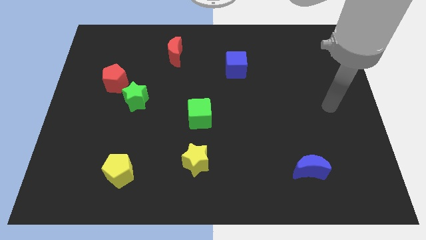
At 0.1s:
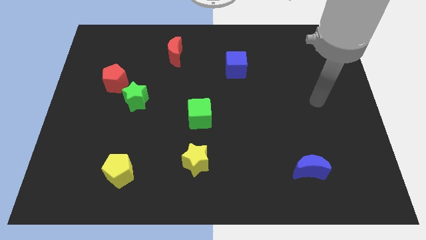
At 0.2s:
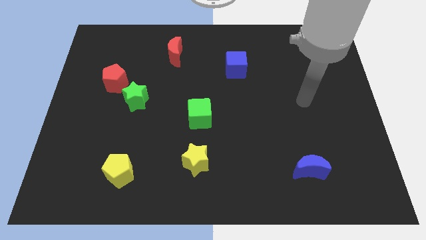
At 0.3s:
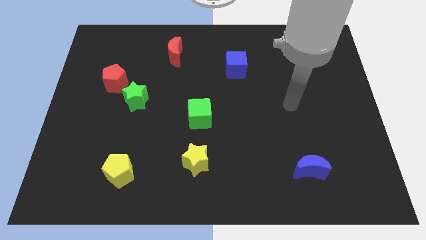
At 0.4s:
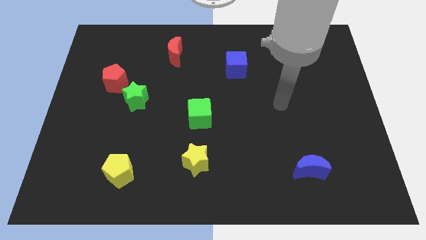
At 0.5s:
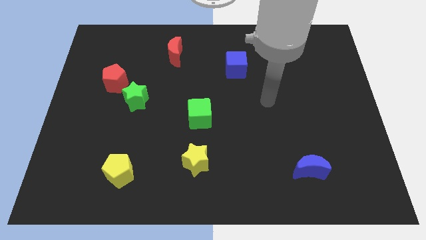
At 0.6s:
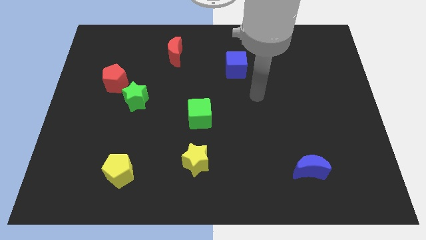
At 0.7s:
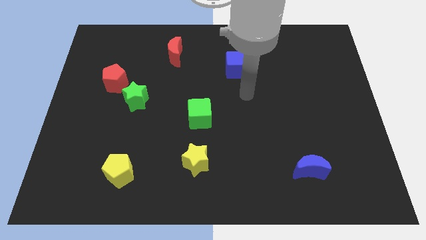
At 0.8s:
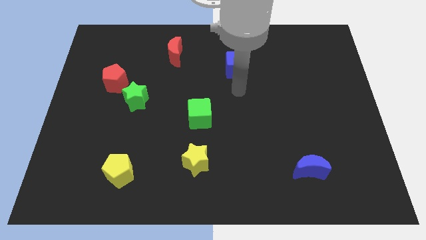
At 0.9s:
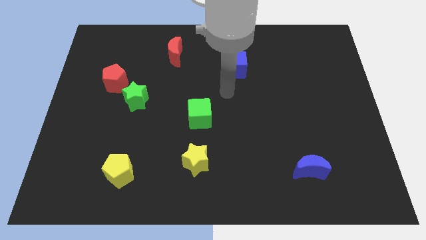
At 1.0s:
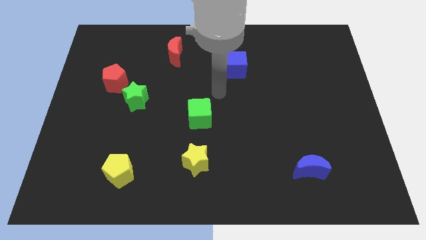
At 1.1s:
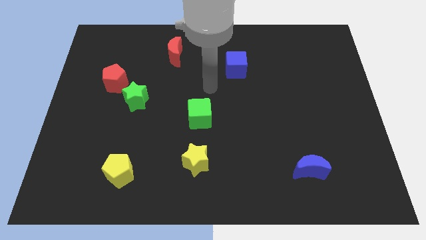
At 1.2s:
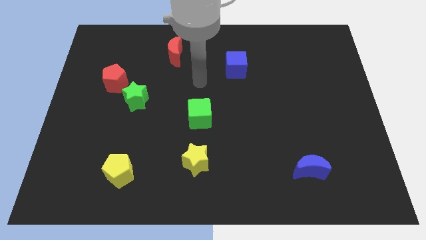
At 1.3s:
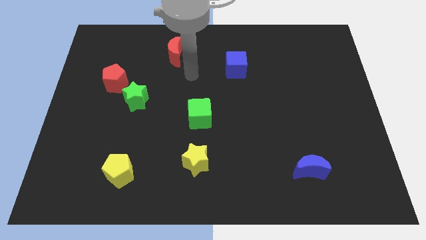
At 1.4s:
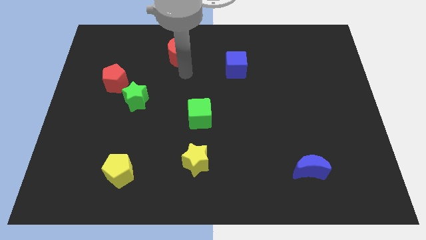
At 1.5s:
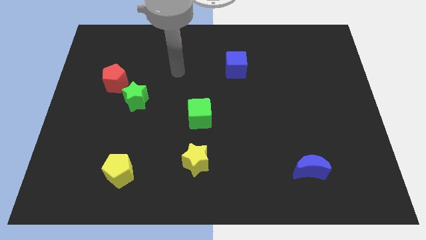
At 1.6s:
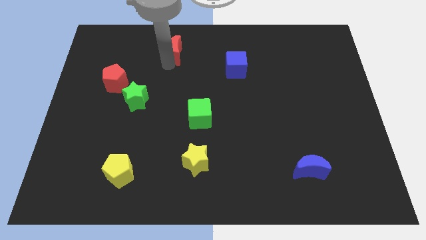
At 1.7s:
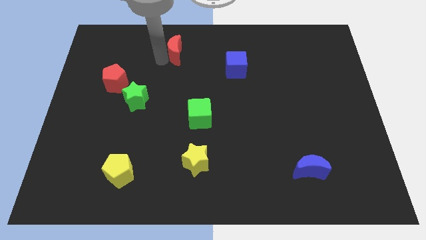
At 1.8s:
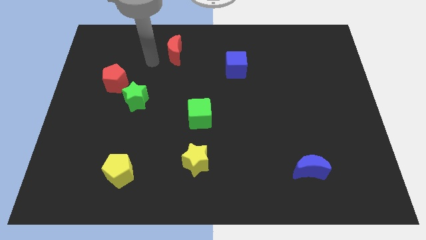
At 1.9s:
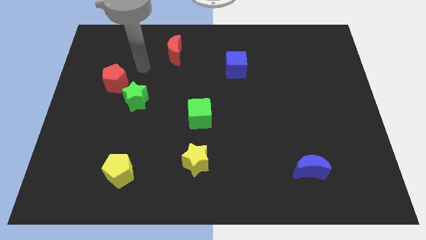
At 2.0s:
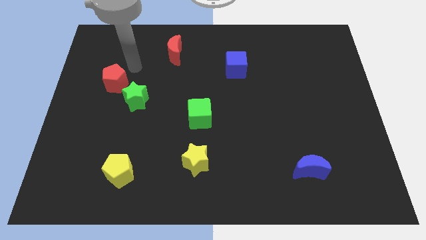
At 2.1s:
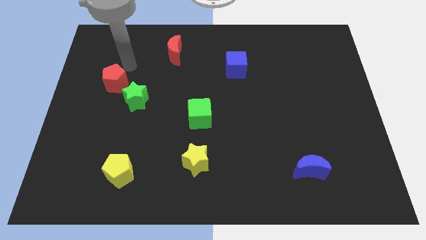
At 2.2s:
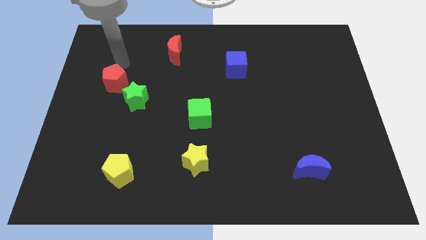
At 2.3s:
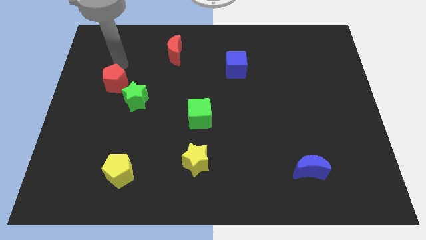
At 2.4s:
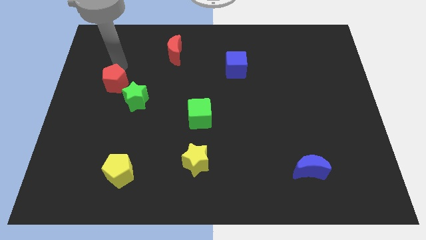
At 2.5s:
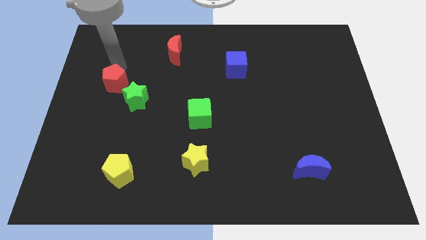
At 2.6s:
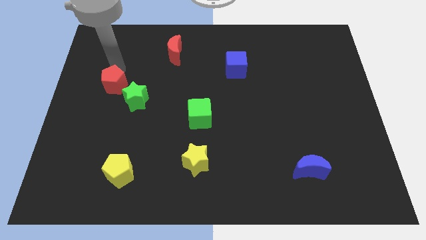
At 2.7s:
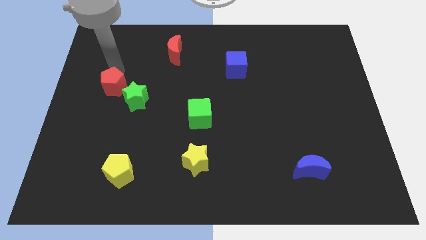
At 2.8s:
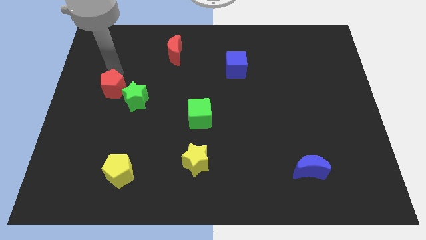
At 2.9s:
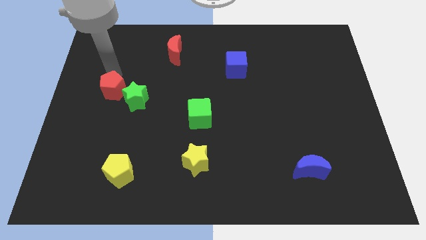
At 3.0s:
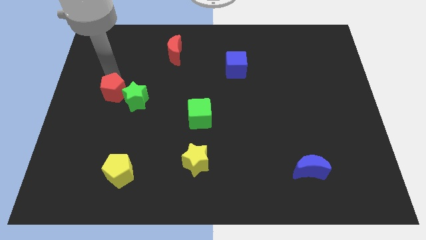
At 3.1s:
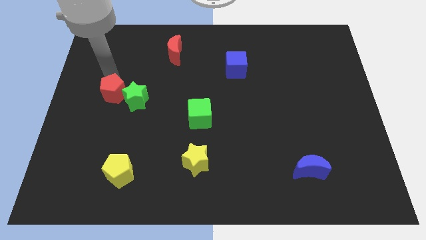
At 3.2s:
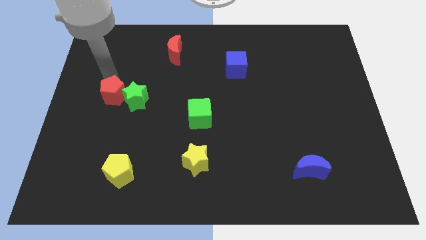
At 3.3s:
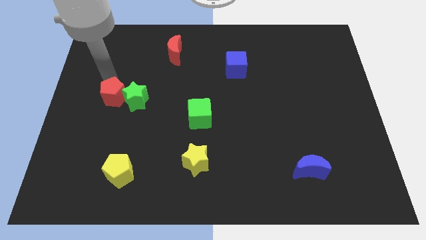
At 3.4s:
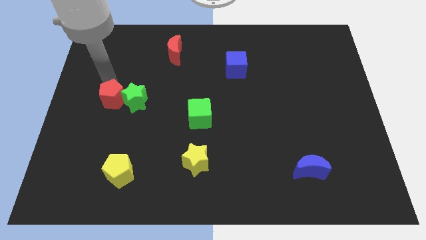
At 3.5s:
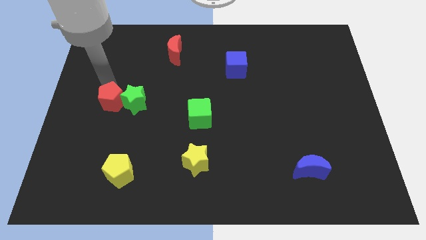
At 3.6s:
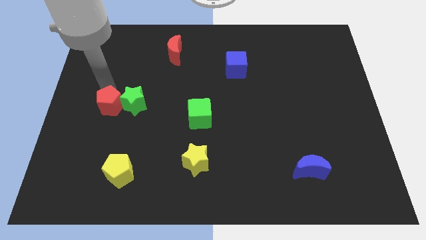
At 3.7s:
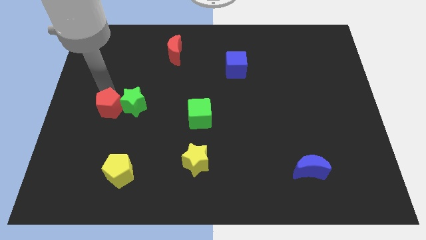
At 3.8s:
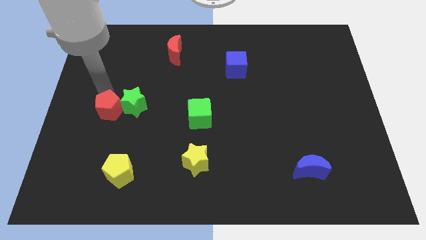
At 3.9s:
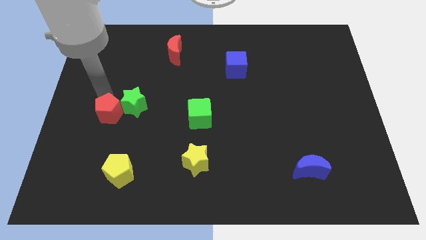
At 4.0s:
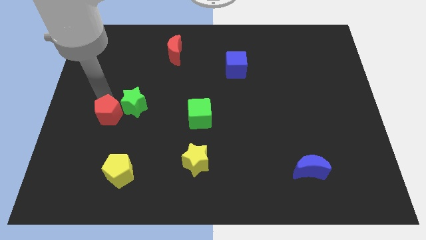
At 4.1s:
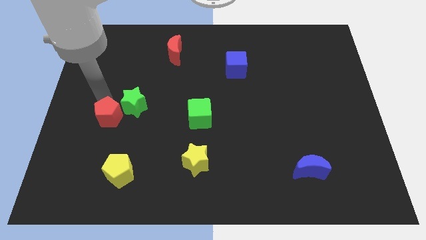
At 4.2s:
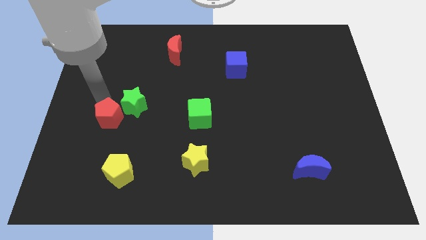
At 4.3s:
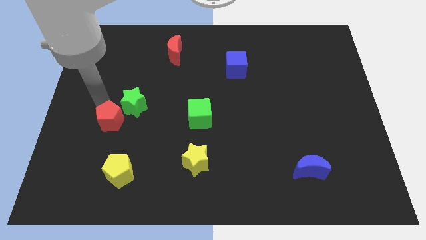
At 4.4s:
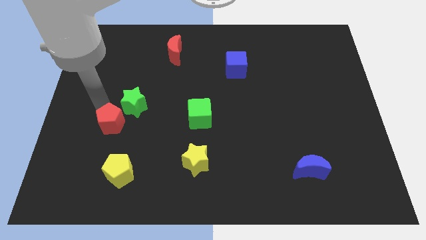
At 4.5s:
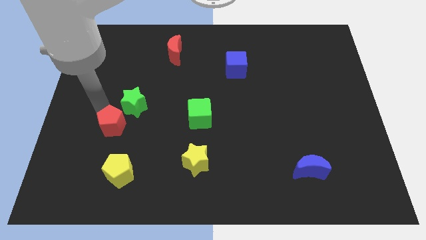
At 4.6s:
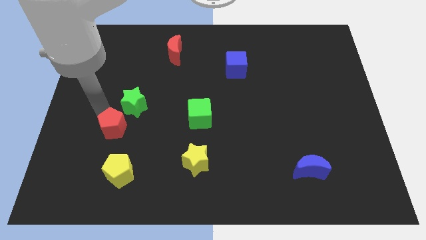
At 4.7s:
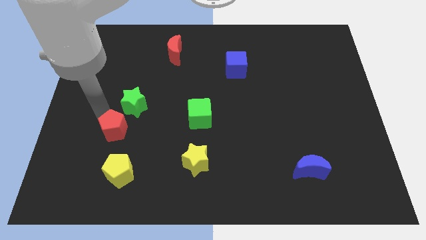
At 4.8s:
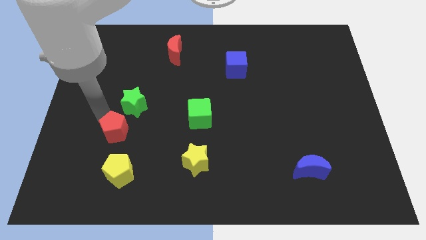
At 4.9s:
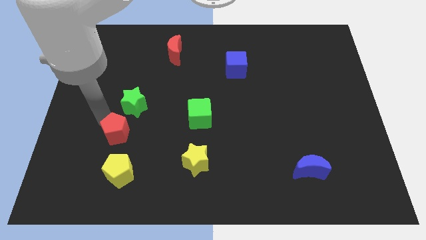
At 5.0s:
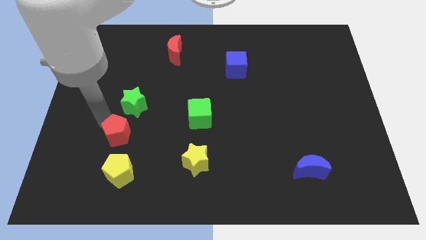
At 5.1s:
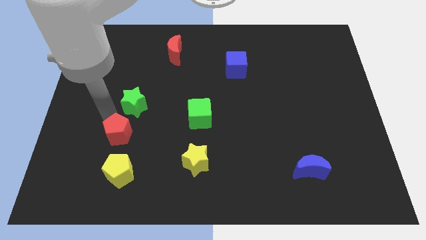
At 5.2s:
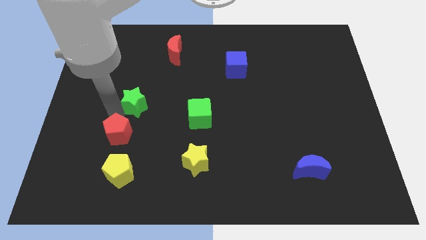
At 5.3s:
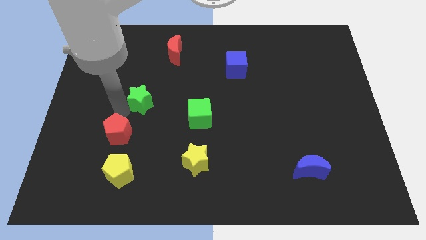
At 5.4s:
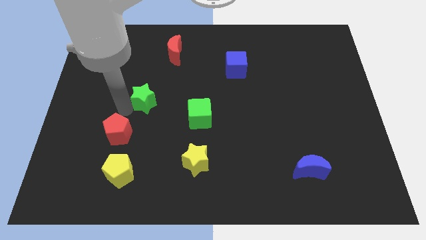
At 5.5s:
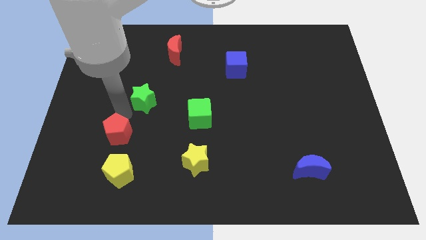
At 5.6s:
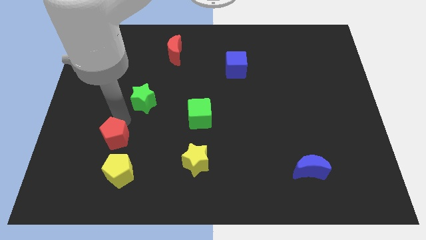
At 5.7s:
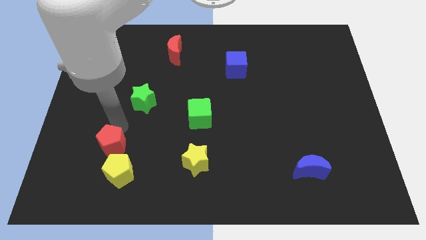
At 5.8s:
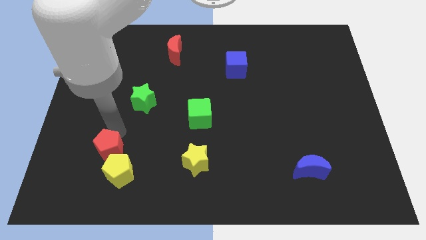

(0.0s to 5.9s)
move the red pentagon next to the yellow pentagon

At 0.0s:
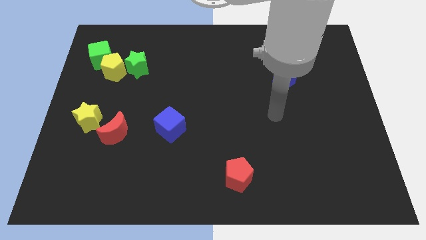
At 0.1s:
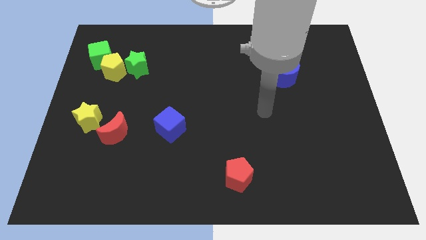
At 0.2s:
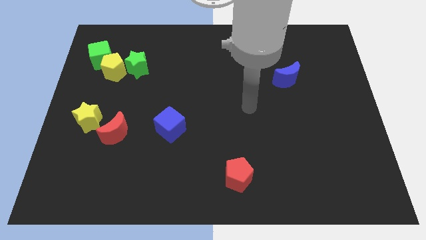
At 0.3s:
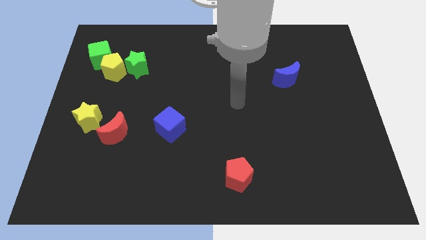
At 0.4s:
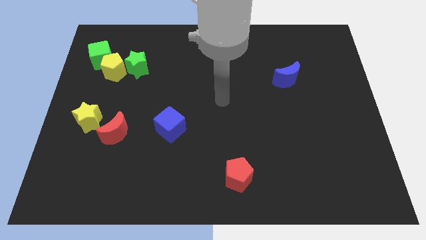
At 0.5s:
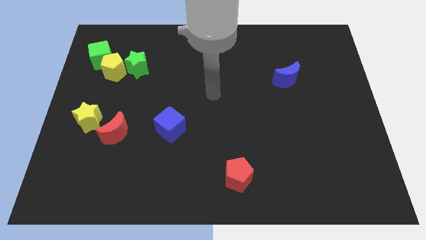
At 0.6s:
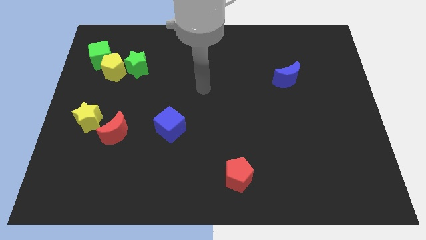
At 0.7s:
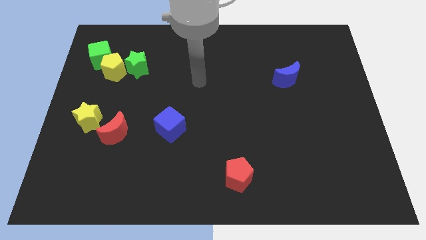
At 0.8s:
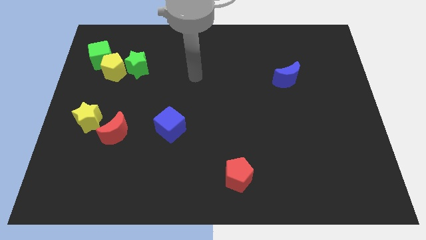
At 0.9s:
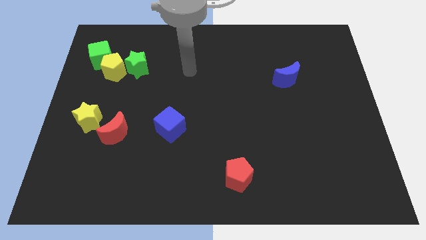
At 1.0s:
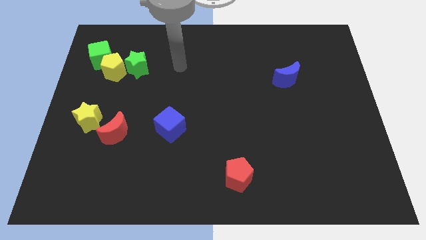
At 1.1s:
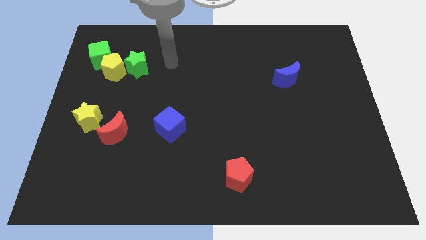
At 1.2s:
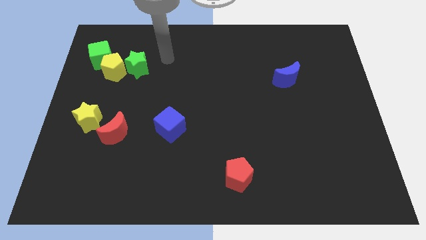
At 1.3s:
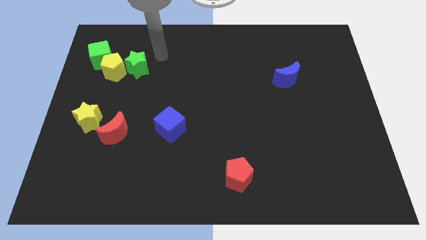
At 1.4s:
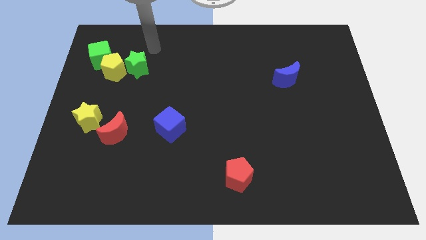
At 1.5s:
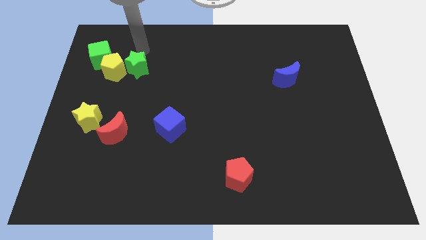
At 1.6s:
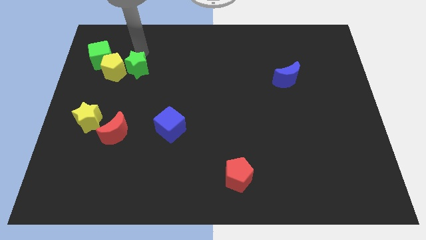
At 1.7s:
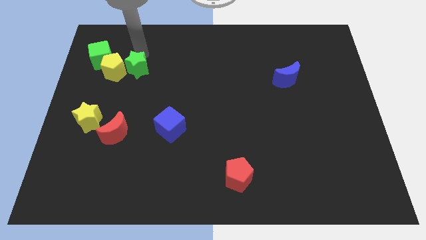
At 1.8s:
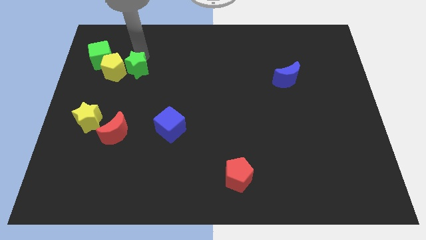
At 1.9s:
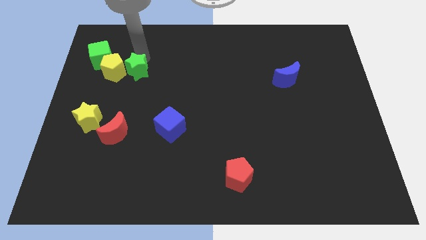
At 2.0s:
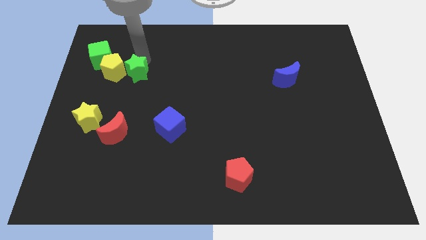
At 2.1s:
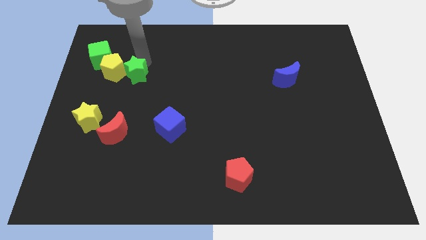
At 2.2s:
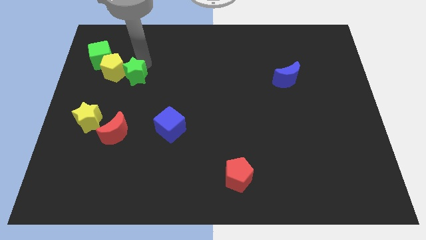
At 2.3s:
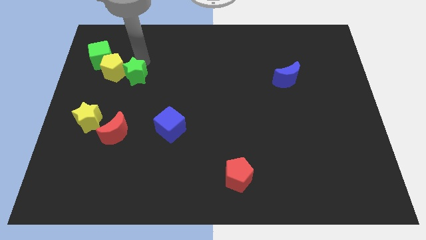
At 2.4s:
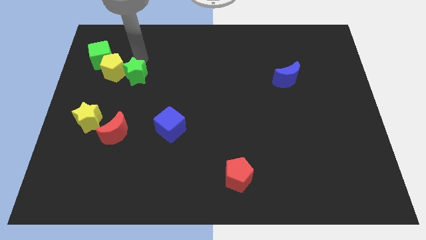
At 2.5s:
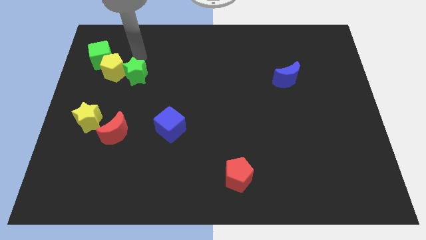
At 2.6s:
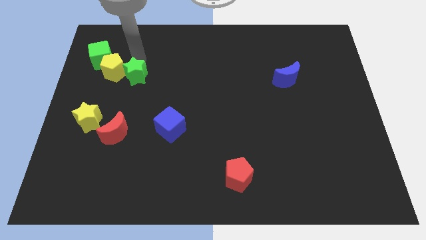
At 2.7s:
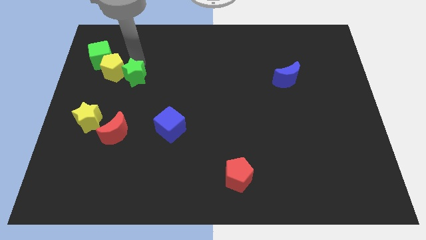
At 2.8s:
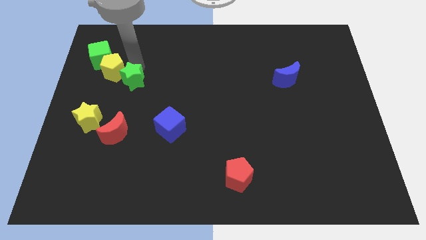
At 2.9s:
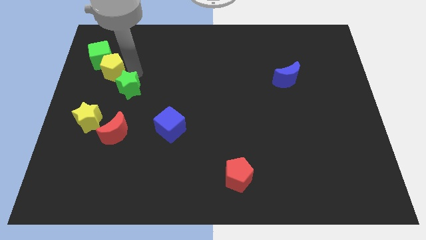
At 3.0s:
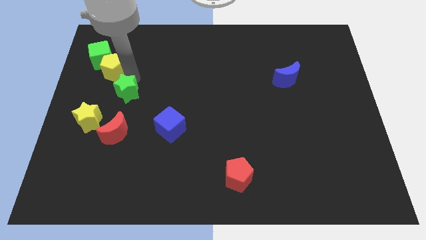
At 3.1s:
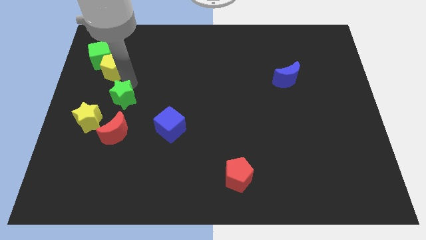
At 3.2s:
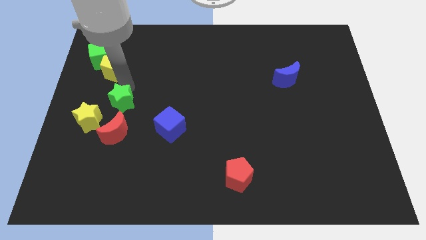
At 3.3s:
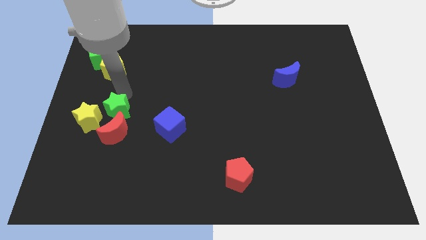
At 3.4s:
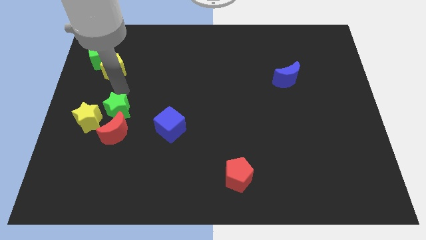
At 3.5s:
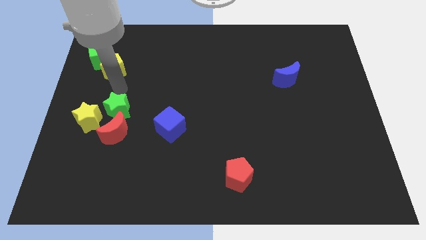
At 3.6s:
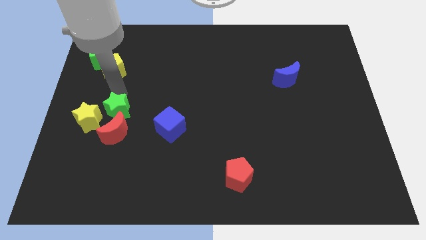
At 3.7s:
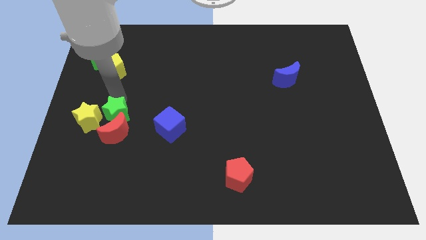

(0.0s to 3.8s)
push the green star to the red moon
